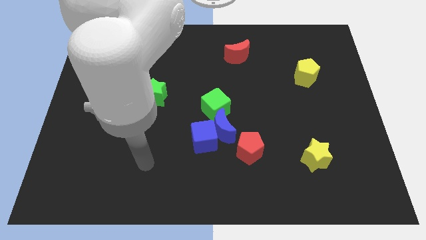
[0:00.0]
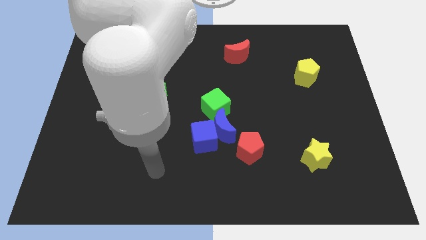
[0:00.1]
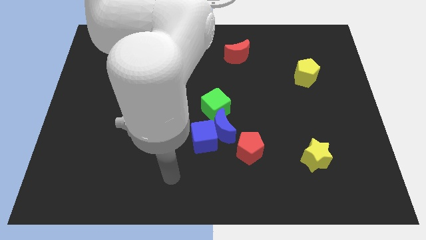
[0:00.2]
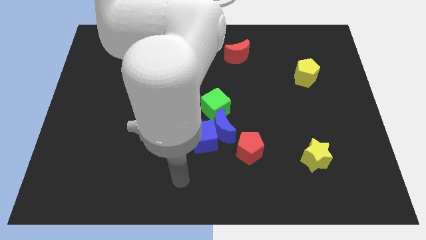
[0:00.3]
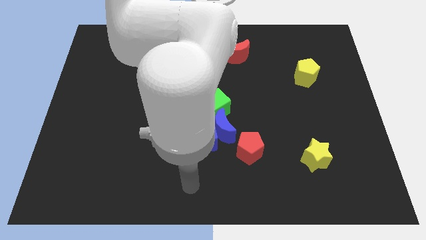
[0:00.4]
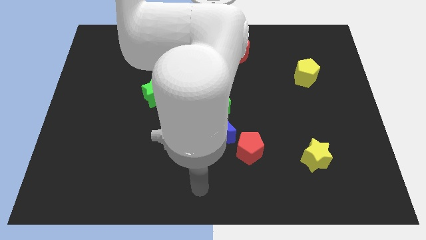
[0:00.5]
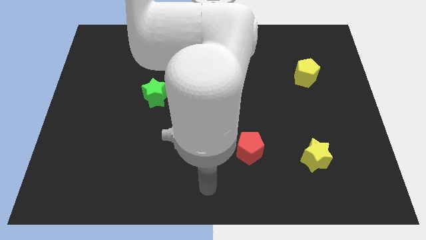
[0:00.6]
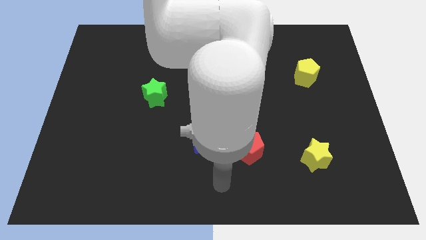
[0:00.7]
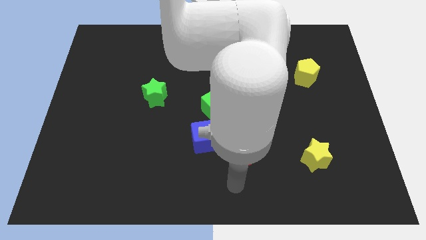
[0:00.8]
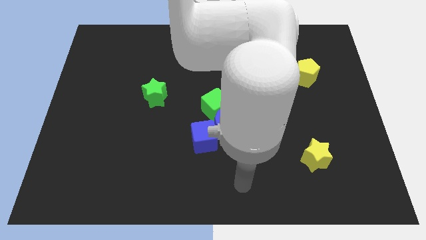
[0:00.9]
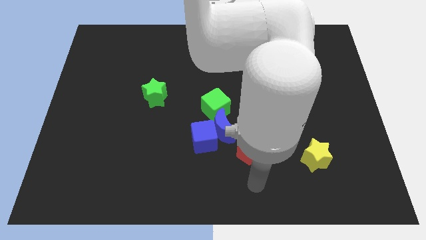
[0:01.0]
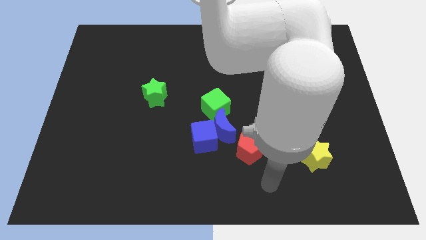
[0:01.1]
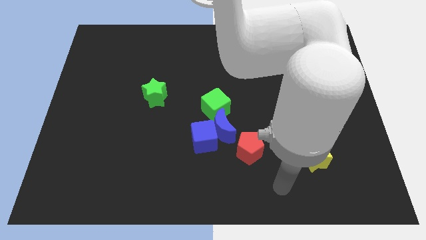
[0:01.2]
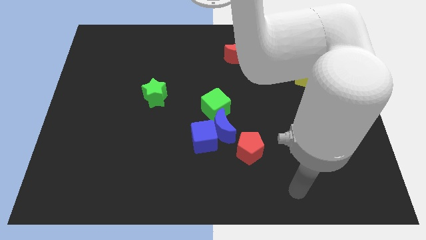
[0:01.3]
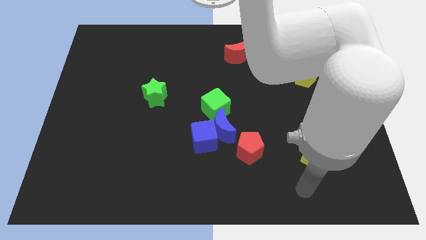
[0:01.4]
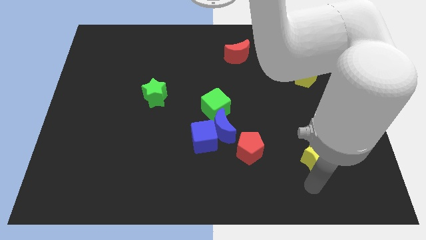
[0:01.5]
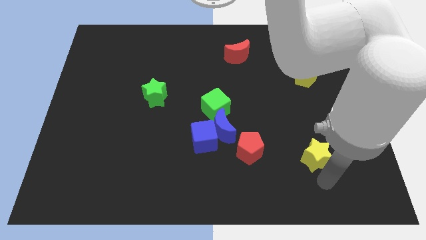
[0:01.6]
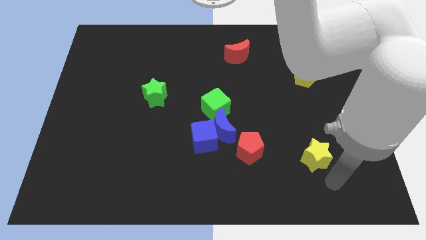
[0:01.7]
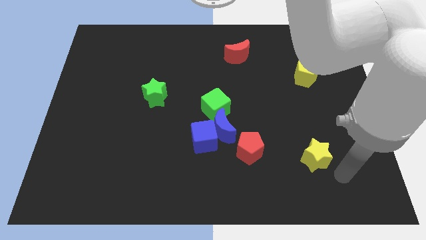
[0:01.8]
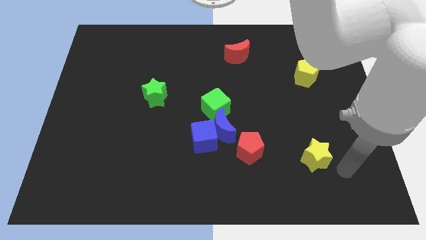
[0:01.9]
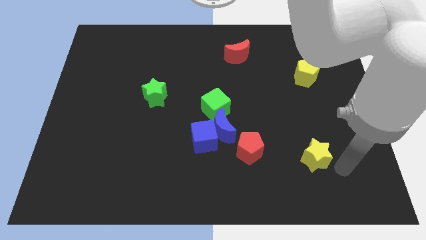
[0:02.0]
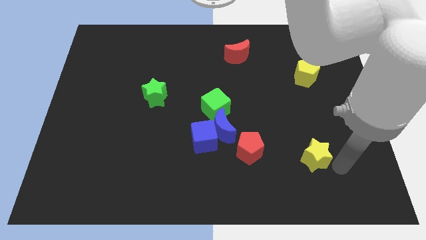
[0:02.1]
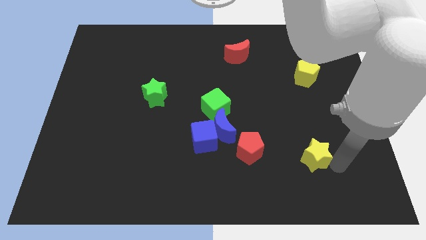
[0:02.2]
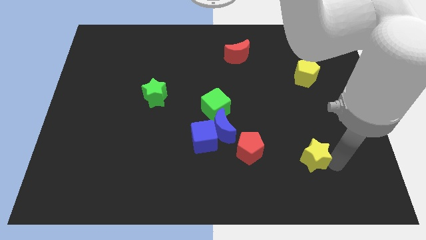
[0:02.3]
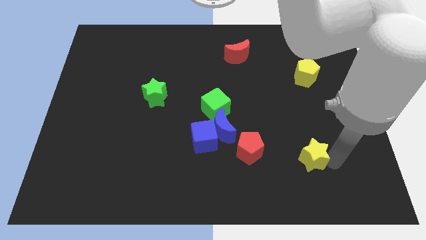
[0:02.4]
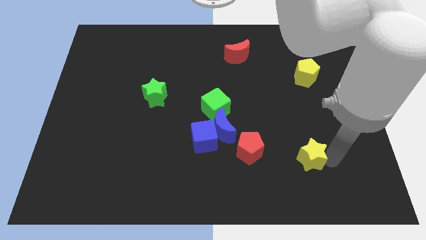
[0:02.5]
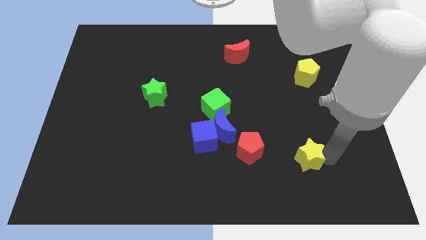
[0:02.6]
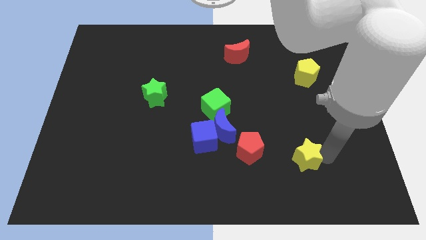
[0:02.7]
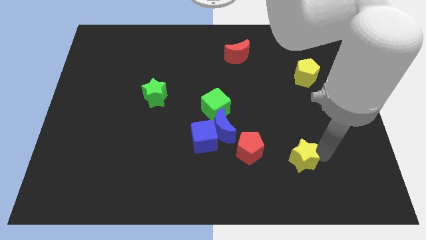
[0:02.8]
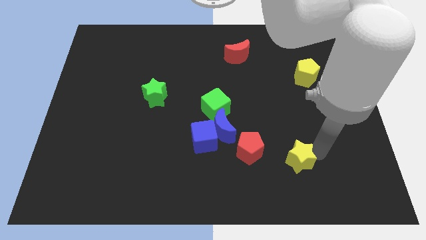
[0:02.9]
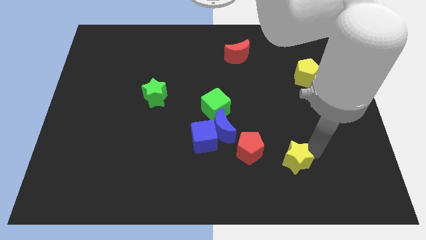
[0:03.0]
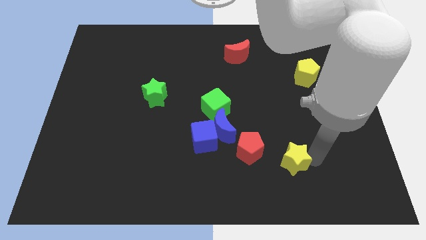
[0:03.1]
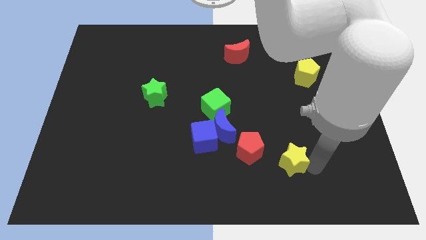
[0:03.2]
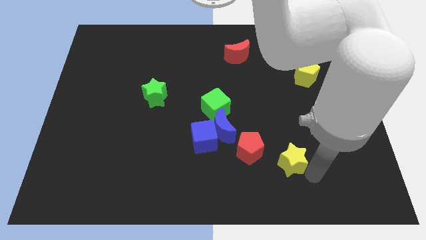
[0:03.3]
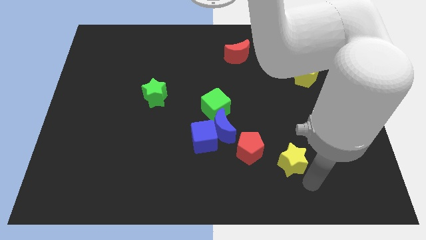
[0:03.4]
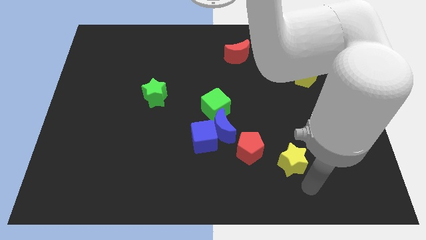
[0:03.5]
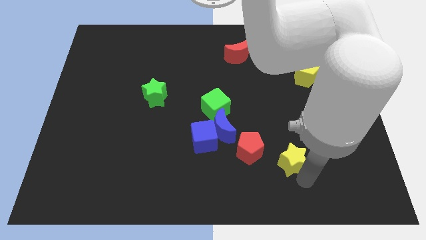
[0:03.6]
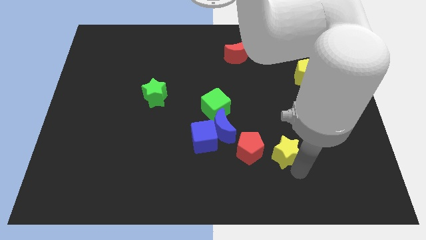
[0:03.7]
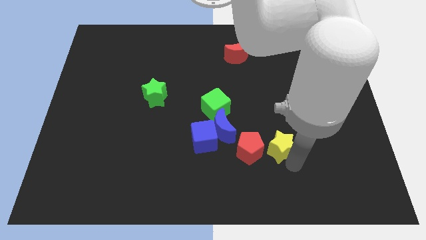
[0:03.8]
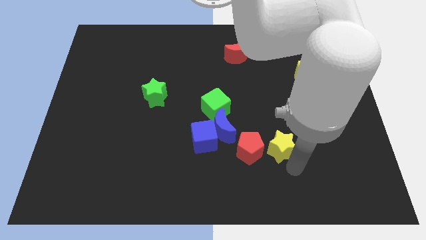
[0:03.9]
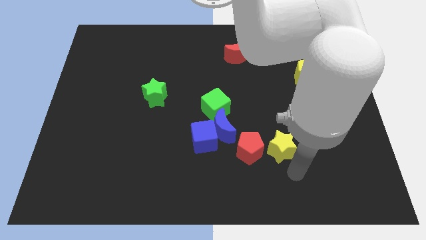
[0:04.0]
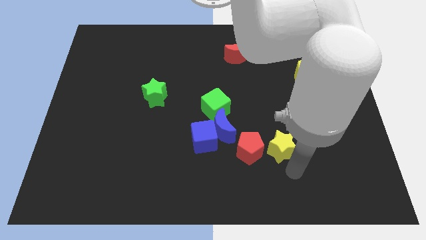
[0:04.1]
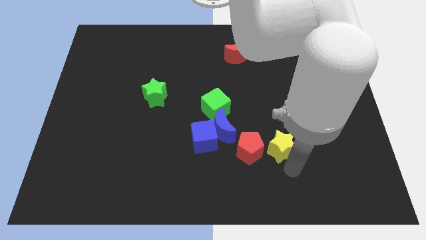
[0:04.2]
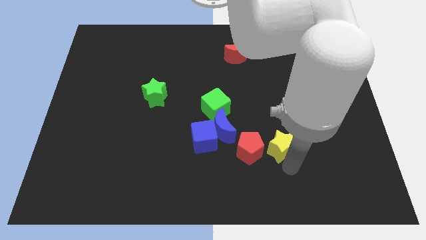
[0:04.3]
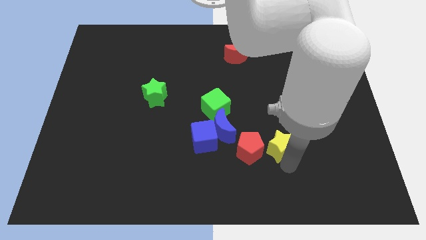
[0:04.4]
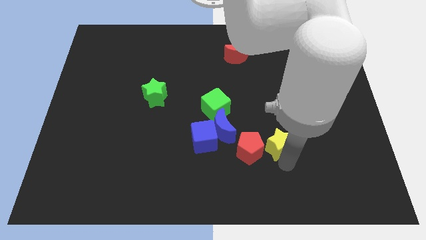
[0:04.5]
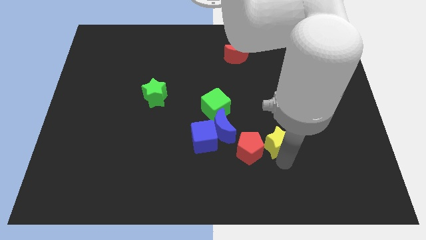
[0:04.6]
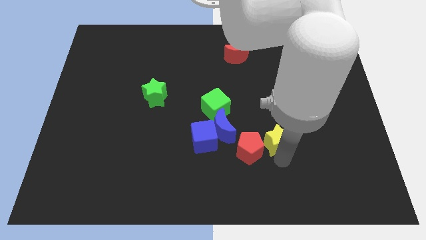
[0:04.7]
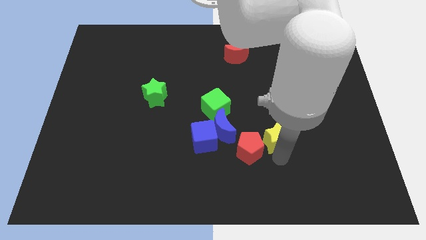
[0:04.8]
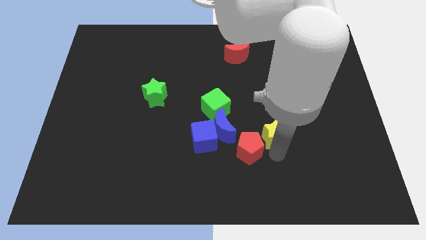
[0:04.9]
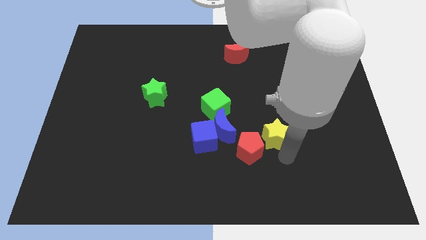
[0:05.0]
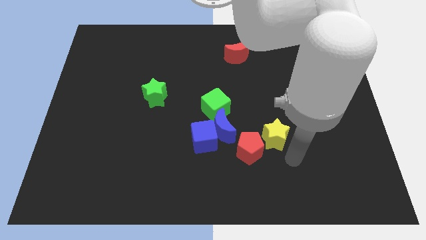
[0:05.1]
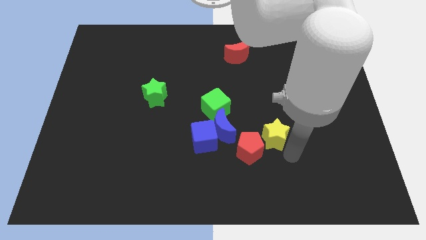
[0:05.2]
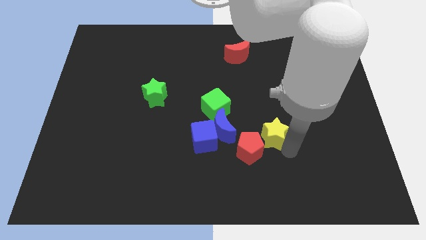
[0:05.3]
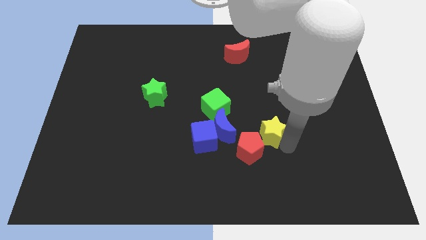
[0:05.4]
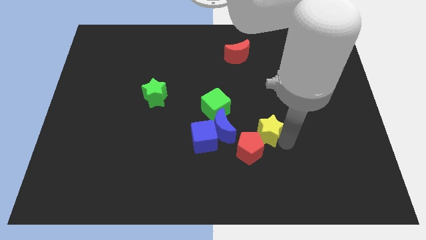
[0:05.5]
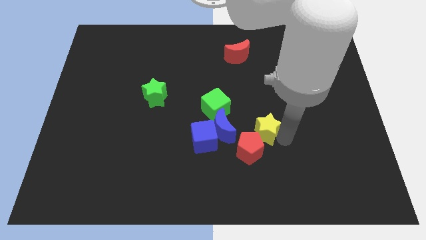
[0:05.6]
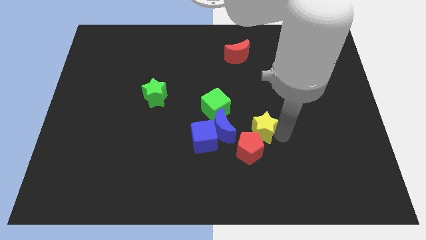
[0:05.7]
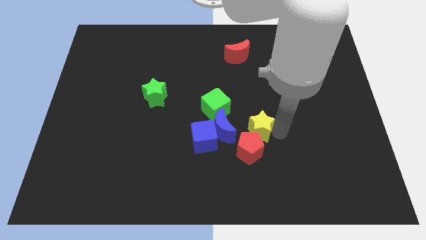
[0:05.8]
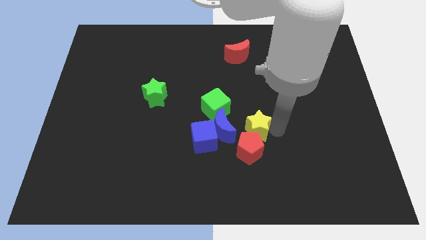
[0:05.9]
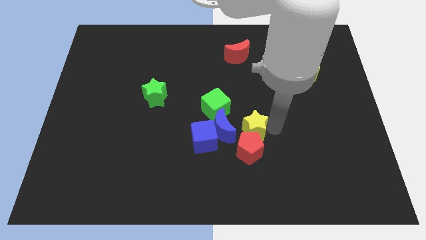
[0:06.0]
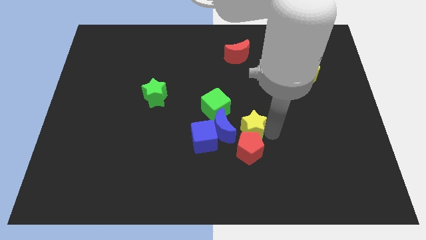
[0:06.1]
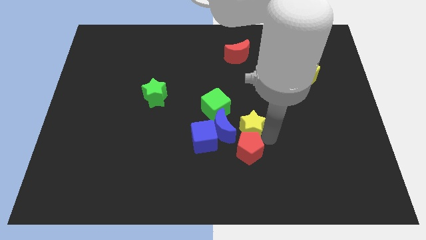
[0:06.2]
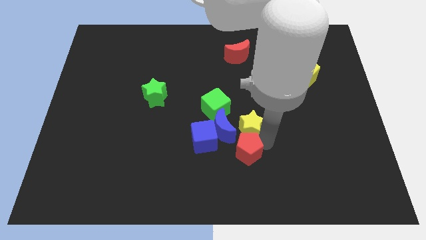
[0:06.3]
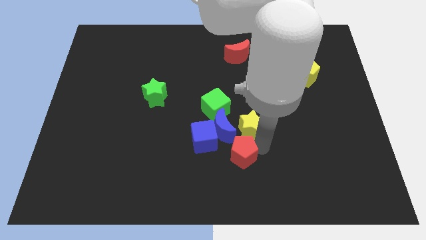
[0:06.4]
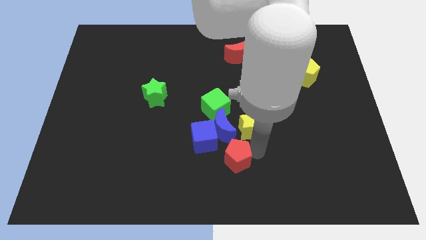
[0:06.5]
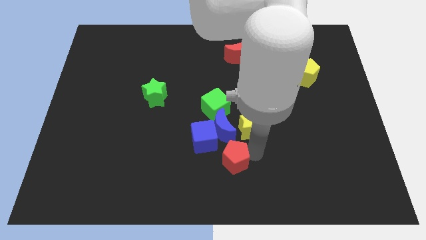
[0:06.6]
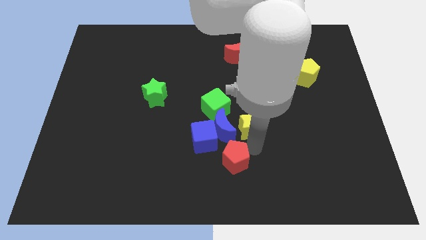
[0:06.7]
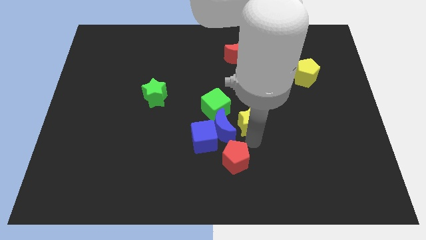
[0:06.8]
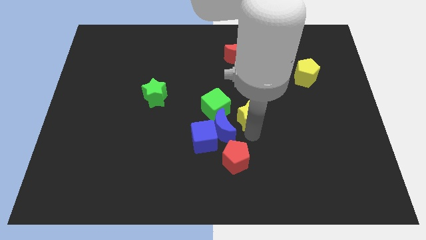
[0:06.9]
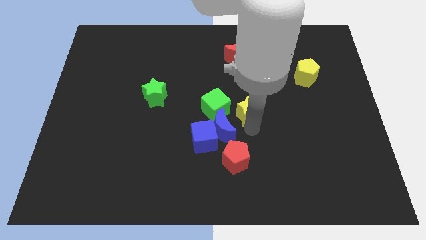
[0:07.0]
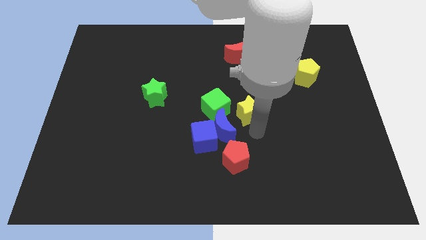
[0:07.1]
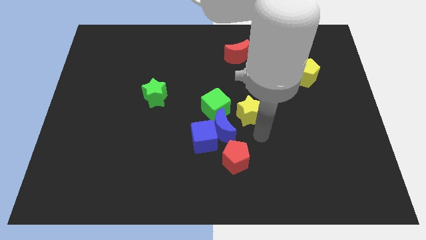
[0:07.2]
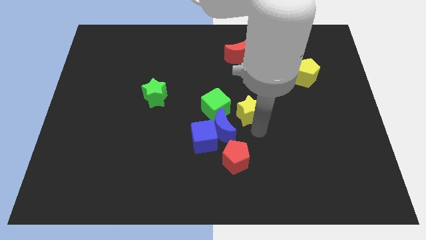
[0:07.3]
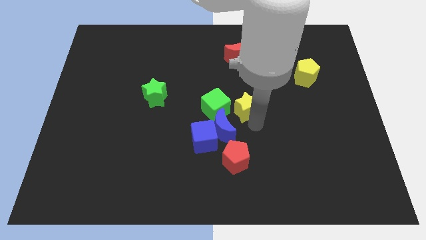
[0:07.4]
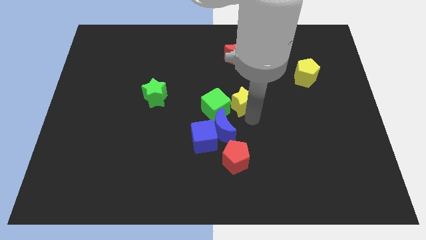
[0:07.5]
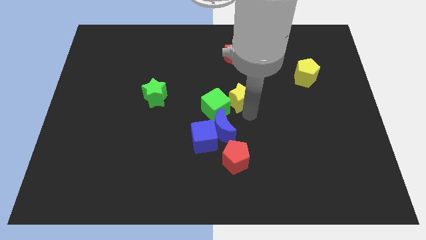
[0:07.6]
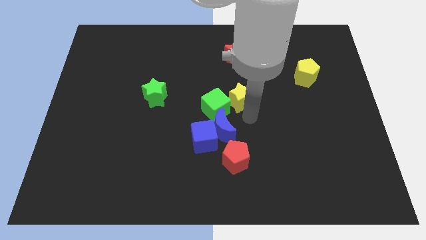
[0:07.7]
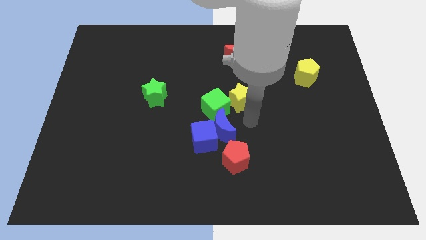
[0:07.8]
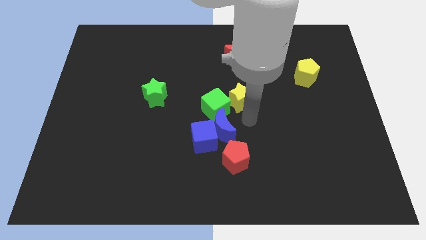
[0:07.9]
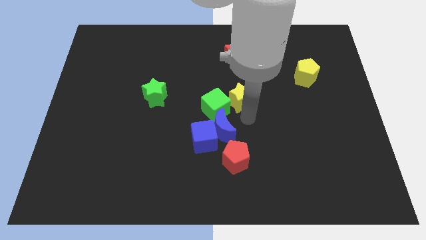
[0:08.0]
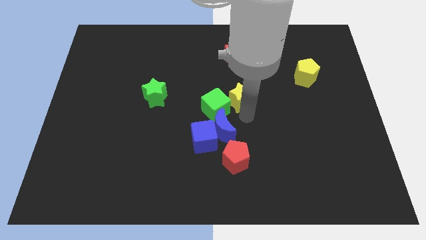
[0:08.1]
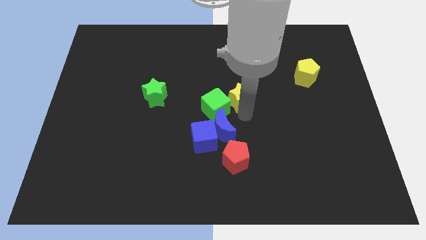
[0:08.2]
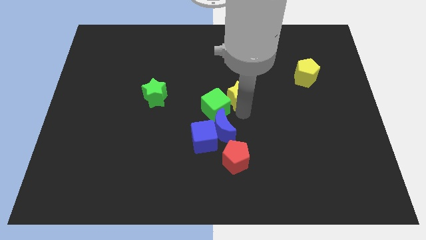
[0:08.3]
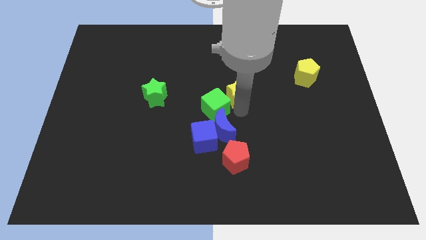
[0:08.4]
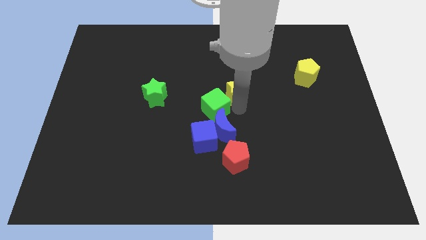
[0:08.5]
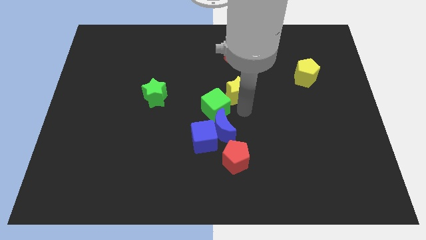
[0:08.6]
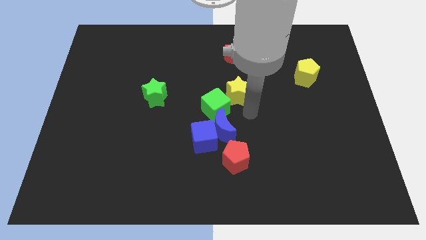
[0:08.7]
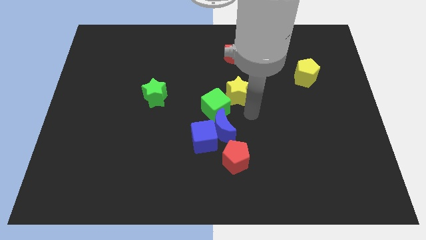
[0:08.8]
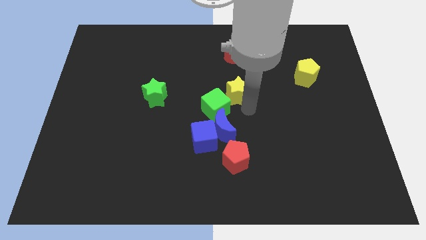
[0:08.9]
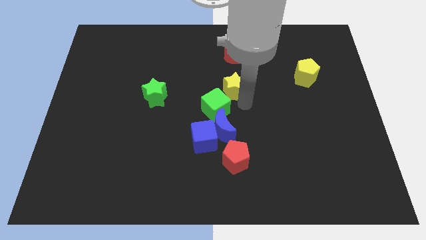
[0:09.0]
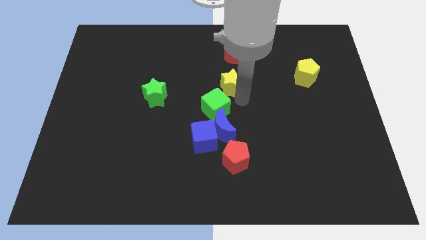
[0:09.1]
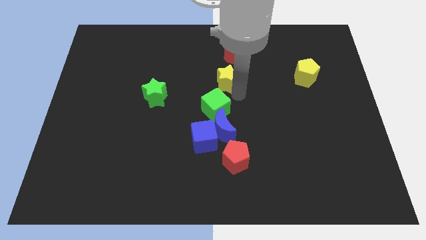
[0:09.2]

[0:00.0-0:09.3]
put the yellow star to the bottom left side of the red moon
